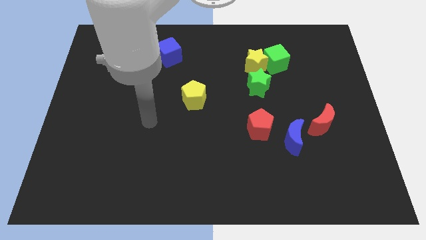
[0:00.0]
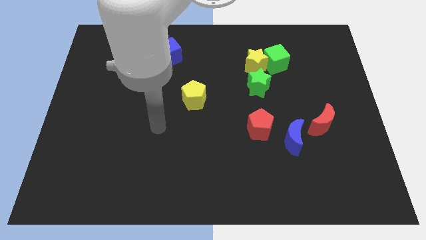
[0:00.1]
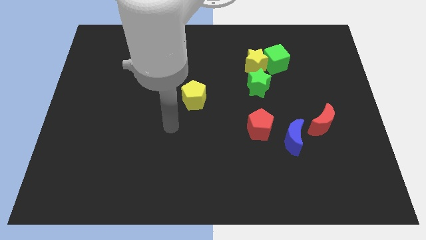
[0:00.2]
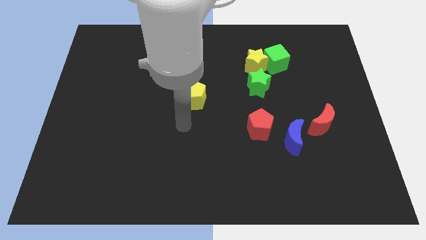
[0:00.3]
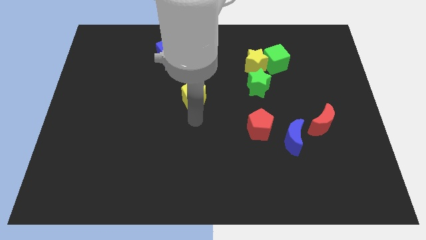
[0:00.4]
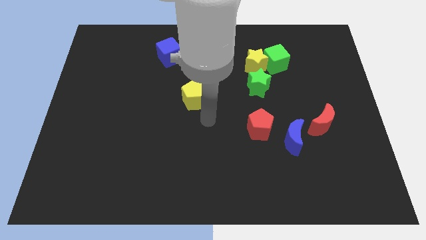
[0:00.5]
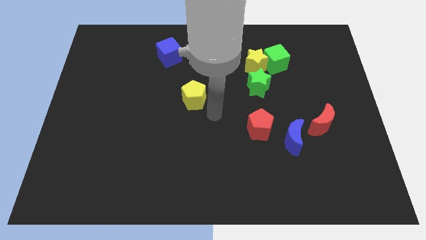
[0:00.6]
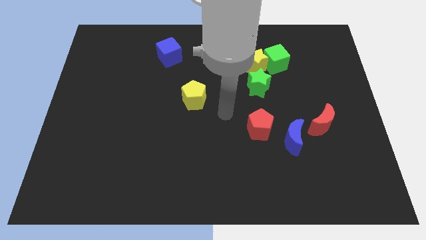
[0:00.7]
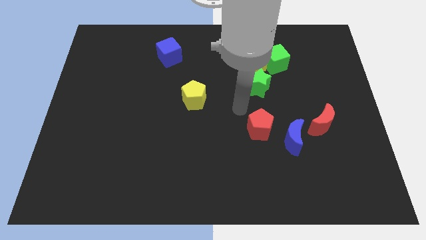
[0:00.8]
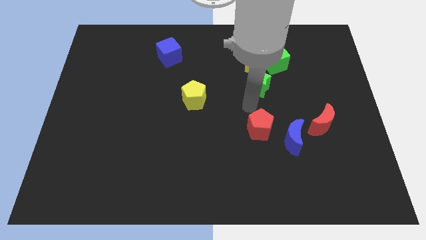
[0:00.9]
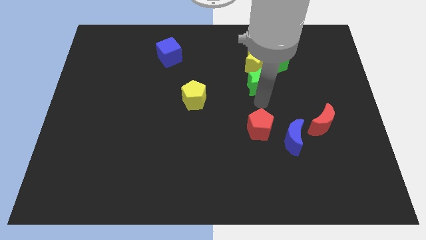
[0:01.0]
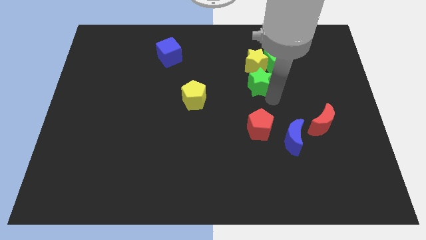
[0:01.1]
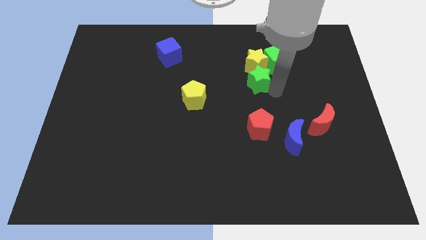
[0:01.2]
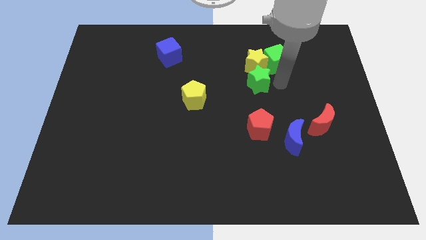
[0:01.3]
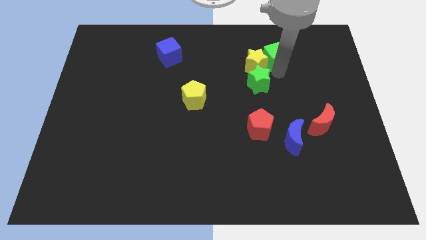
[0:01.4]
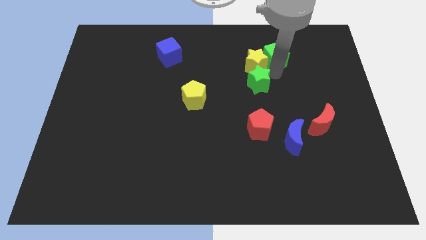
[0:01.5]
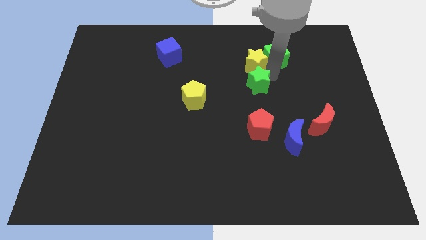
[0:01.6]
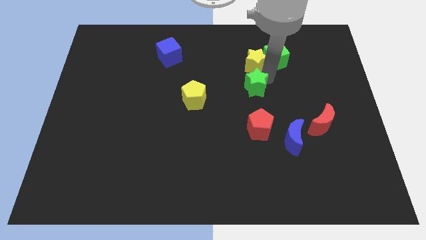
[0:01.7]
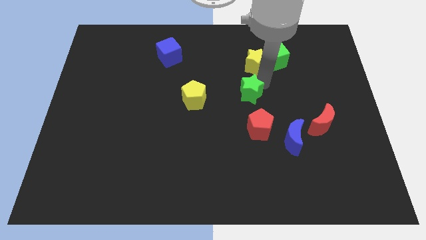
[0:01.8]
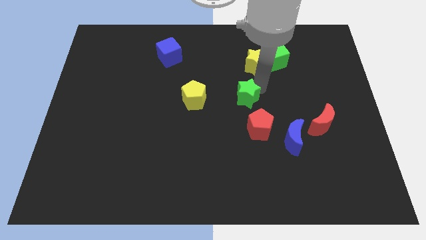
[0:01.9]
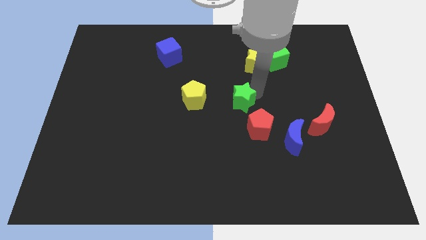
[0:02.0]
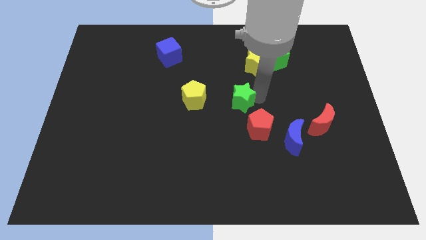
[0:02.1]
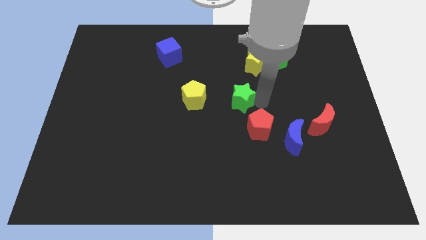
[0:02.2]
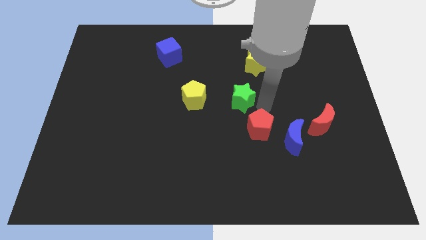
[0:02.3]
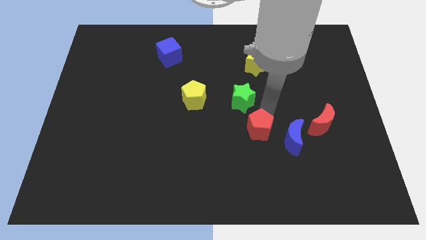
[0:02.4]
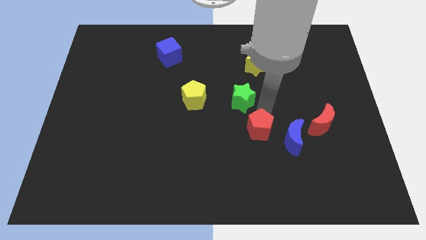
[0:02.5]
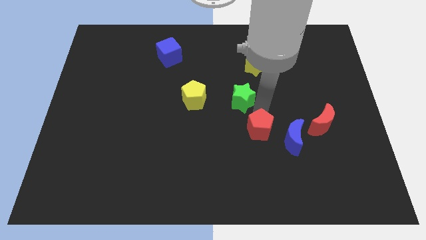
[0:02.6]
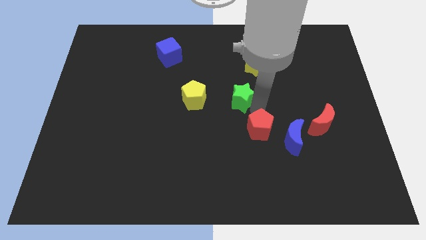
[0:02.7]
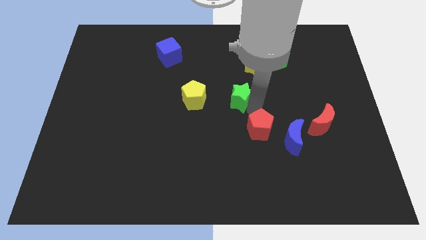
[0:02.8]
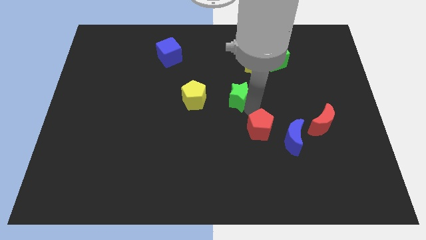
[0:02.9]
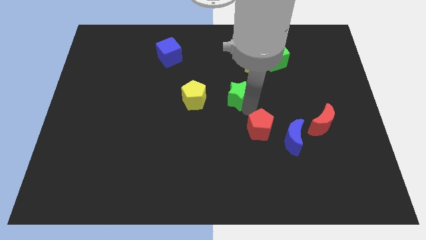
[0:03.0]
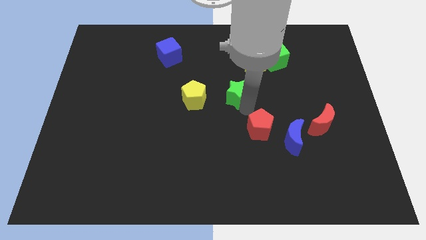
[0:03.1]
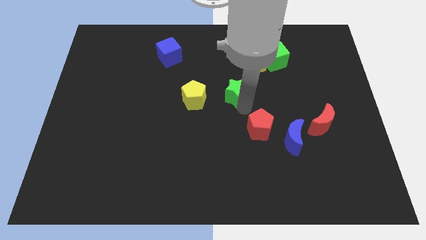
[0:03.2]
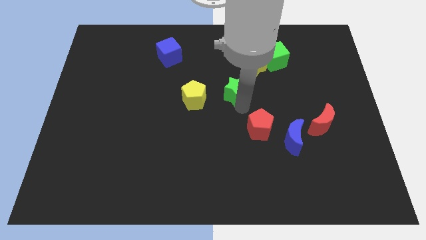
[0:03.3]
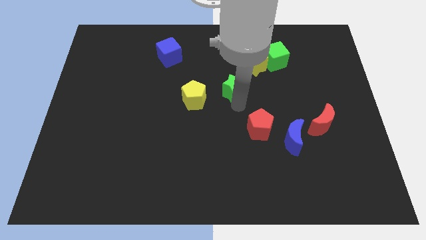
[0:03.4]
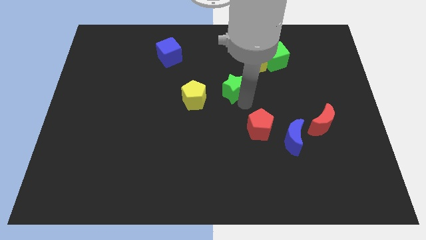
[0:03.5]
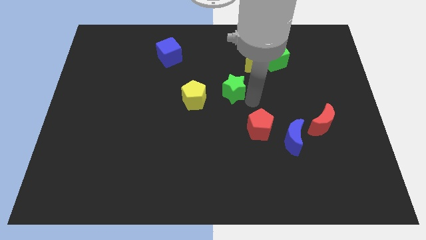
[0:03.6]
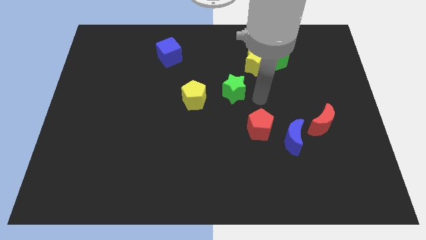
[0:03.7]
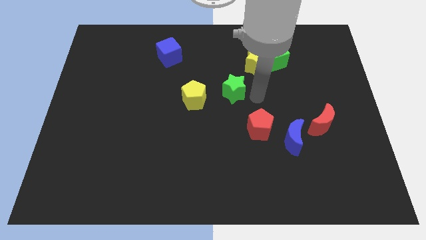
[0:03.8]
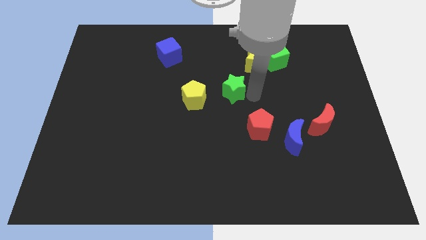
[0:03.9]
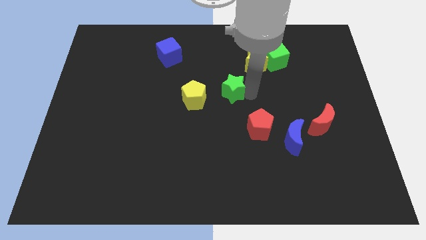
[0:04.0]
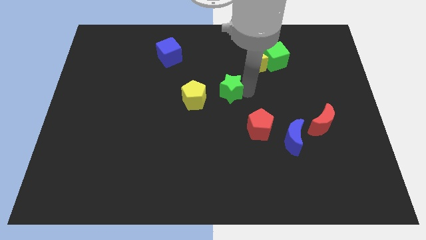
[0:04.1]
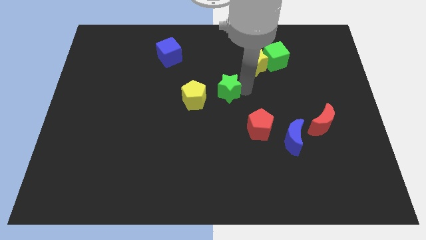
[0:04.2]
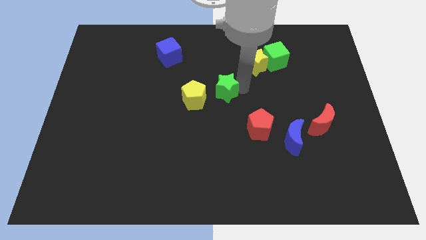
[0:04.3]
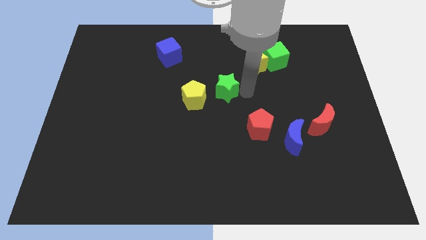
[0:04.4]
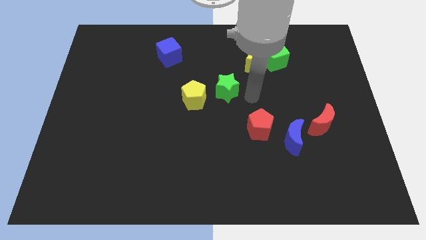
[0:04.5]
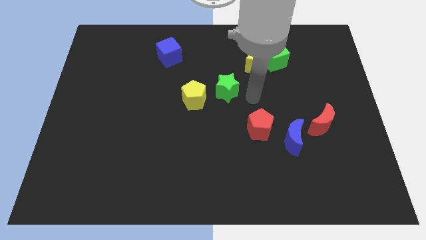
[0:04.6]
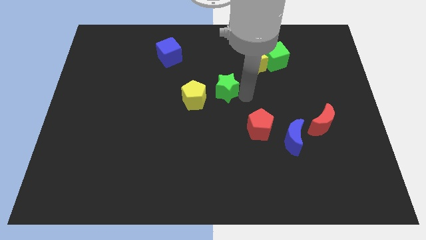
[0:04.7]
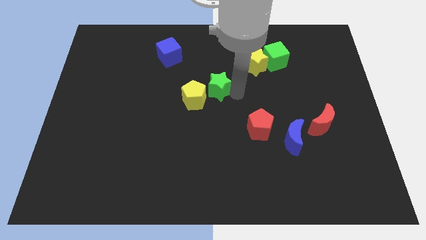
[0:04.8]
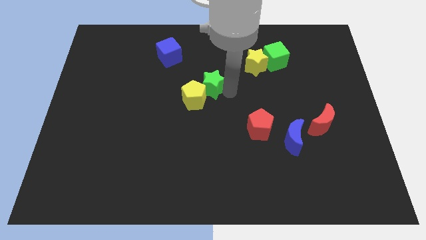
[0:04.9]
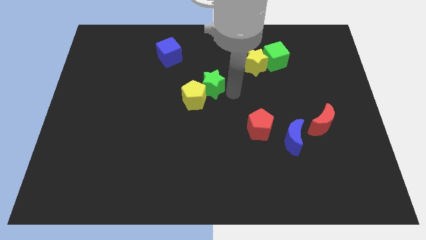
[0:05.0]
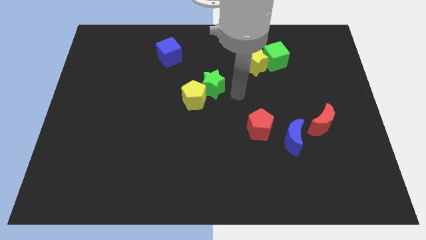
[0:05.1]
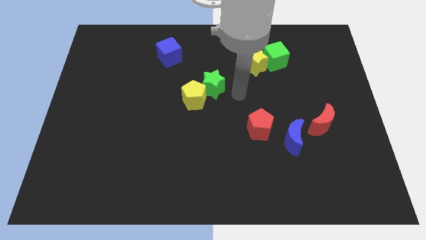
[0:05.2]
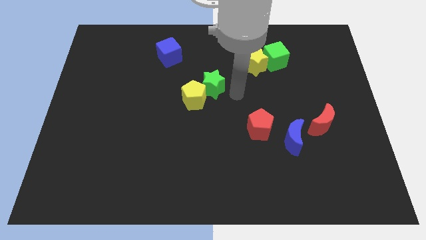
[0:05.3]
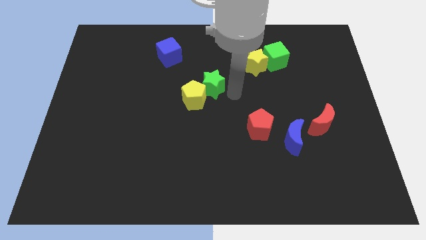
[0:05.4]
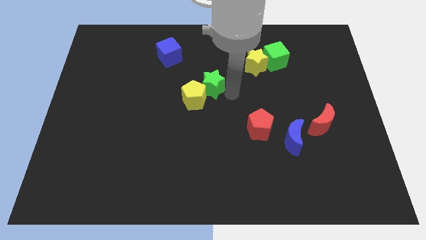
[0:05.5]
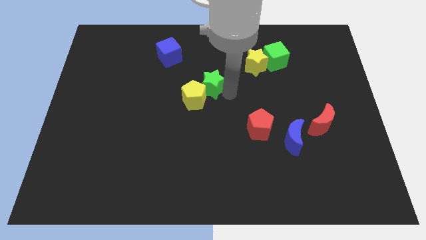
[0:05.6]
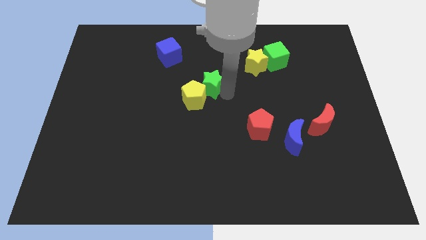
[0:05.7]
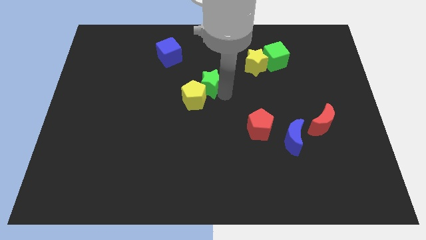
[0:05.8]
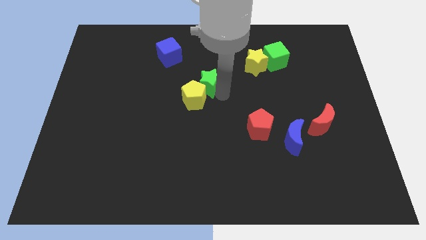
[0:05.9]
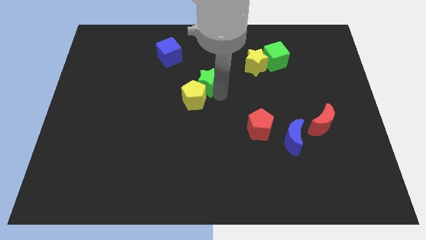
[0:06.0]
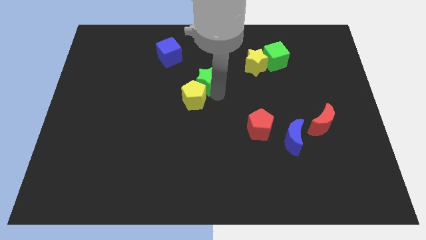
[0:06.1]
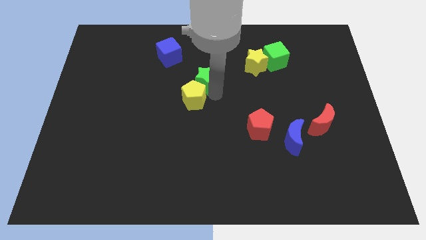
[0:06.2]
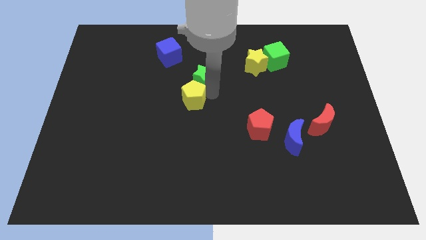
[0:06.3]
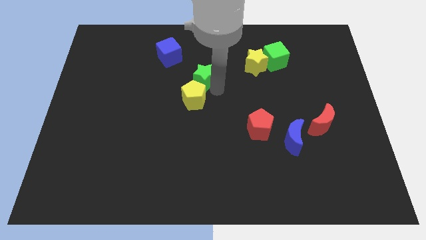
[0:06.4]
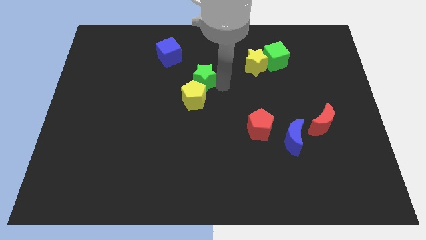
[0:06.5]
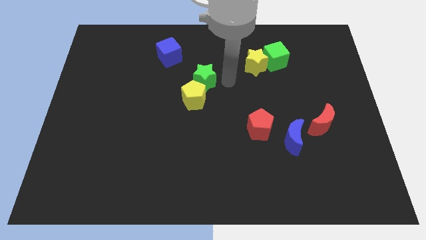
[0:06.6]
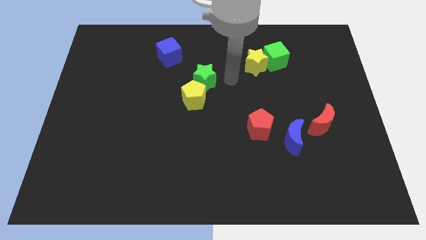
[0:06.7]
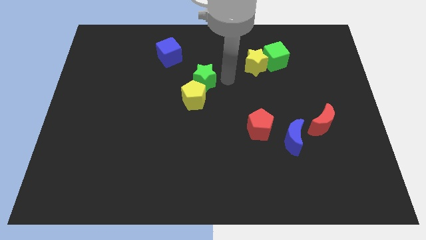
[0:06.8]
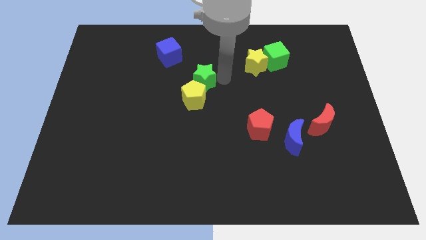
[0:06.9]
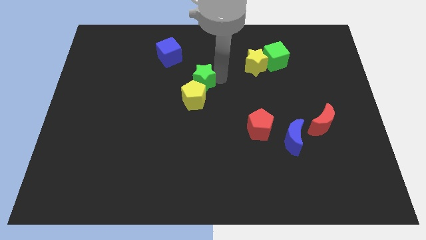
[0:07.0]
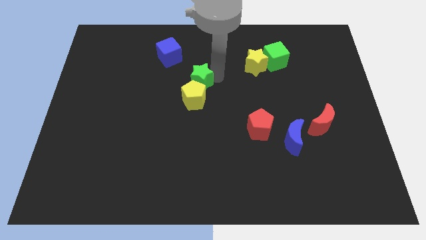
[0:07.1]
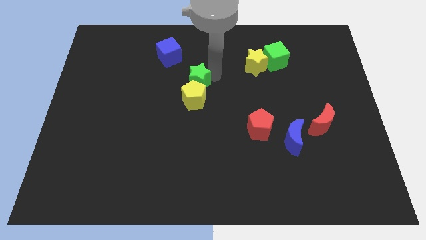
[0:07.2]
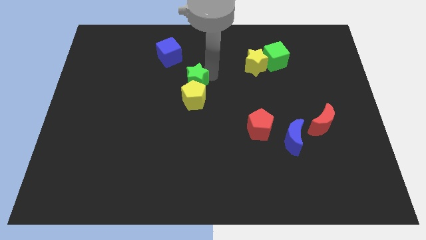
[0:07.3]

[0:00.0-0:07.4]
slide the green star to the top left side of the yellow pentagon
